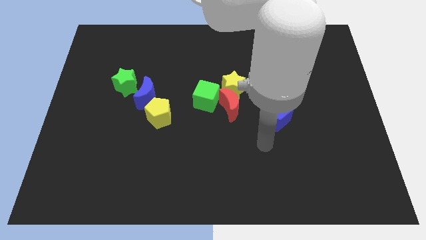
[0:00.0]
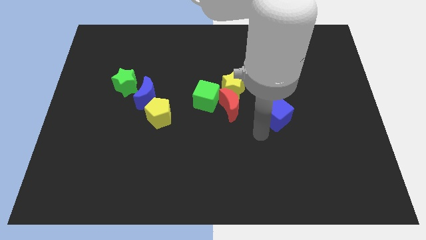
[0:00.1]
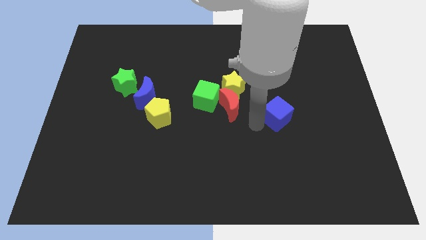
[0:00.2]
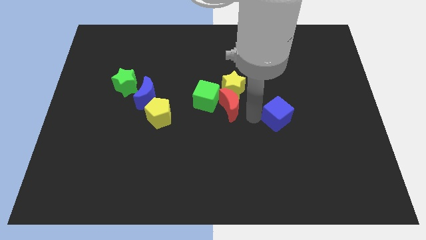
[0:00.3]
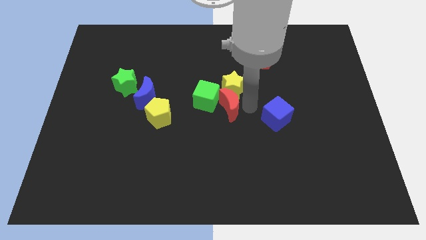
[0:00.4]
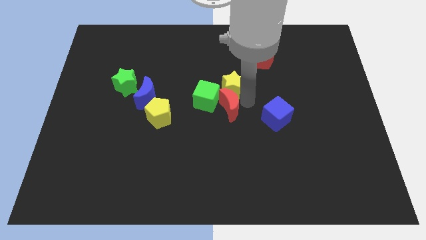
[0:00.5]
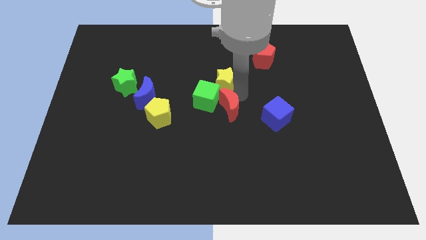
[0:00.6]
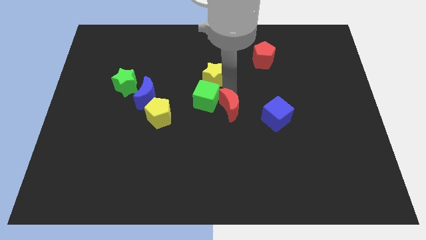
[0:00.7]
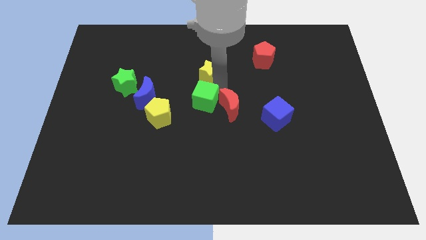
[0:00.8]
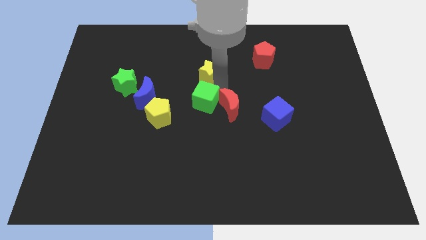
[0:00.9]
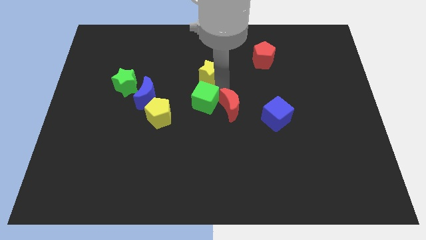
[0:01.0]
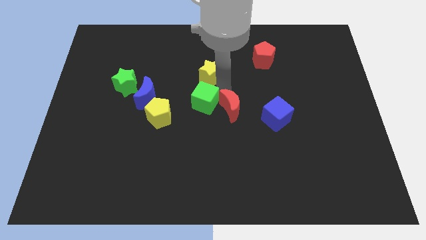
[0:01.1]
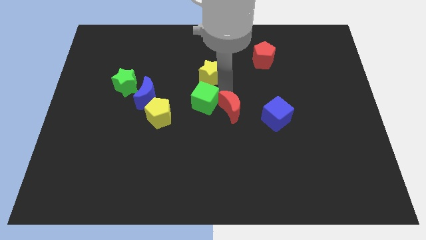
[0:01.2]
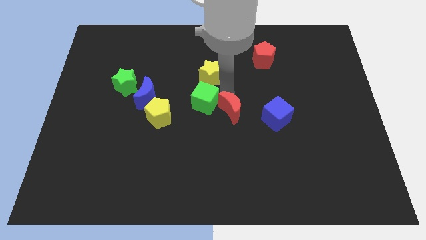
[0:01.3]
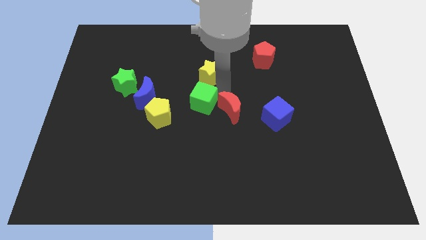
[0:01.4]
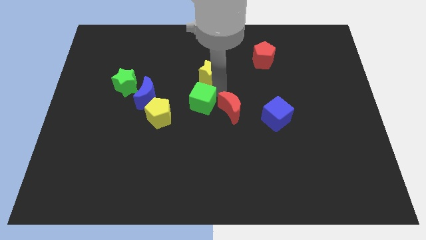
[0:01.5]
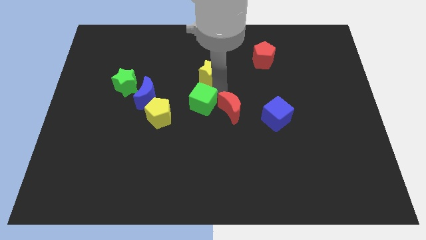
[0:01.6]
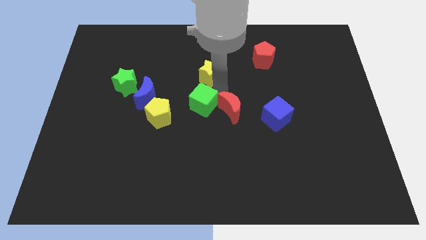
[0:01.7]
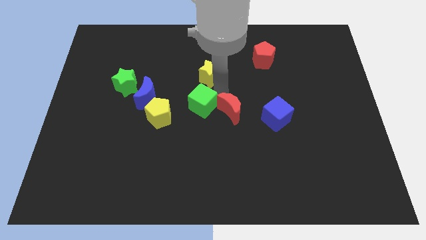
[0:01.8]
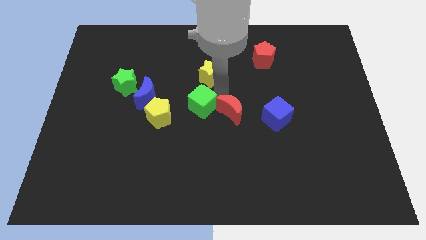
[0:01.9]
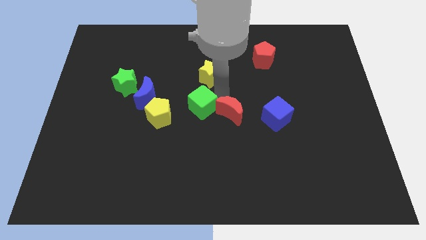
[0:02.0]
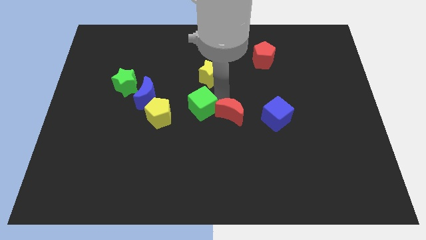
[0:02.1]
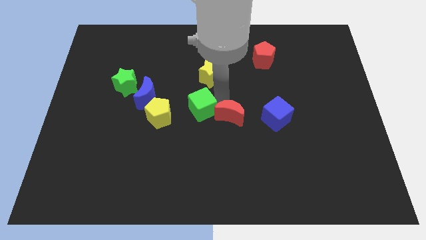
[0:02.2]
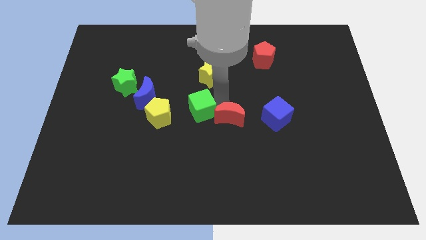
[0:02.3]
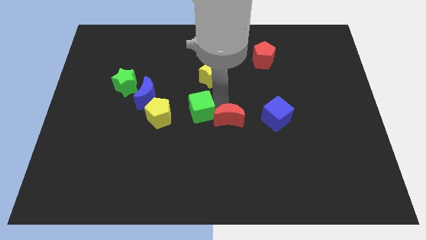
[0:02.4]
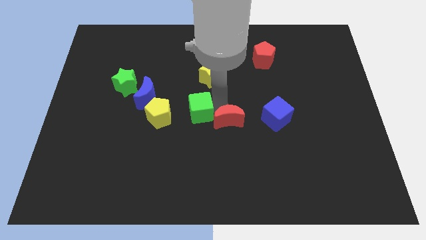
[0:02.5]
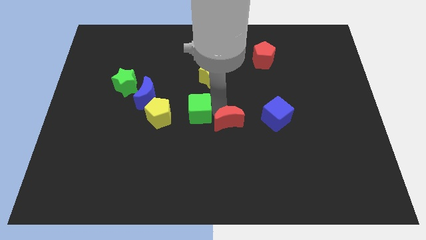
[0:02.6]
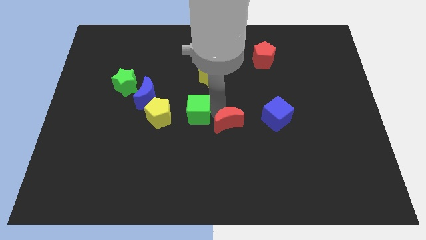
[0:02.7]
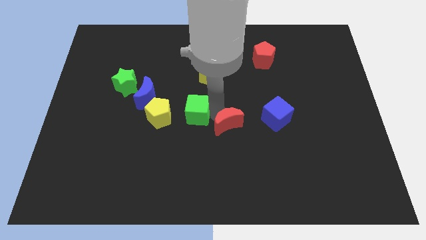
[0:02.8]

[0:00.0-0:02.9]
separate the red moon from the yellow star and green cube

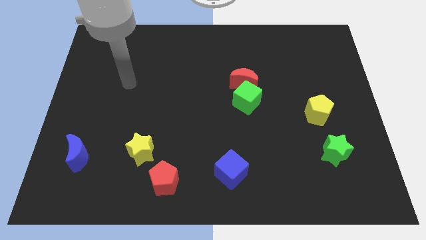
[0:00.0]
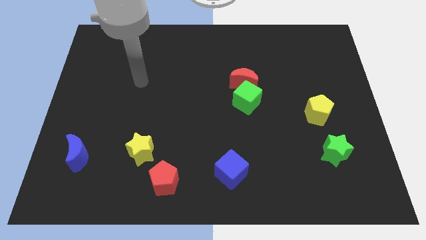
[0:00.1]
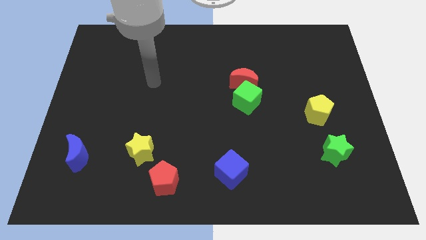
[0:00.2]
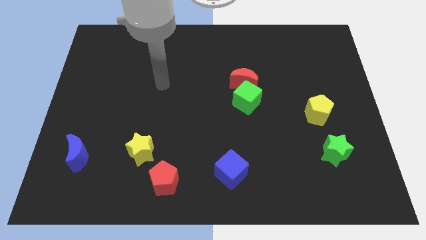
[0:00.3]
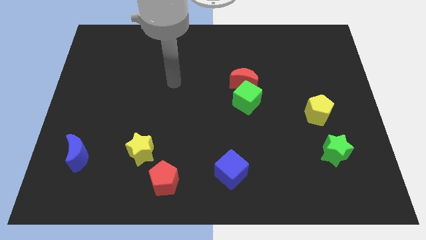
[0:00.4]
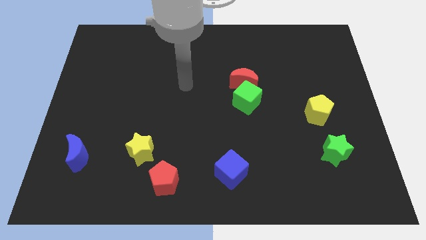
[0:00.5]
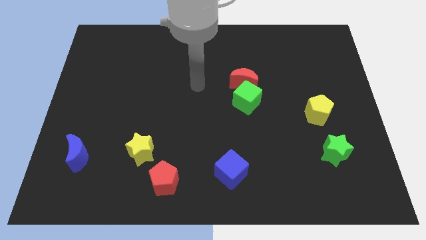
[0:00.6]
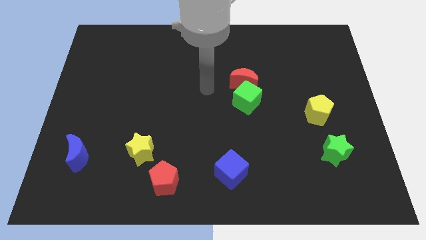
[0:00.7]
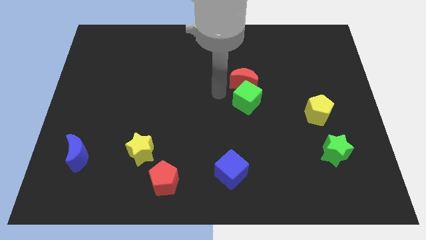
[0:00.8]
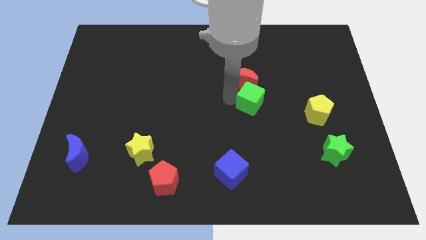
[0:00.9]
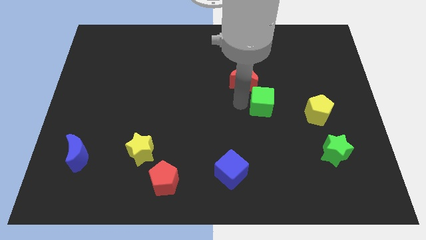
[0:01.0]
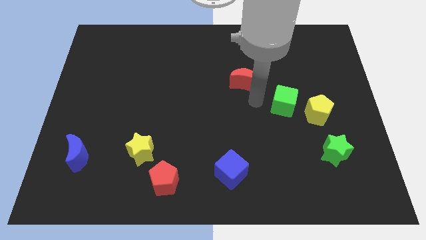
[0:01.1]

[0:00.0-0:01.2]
separate the red moon from the green cube

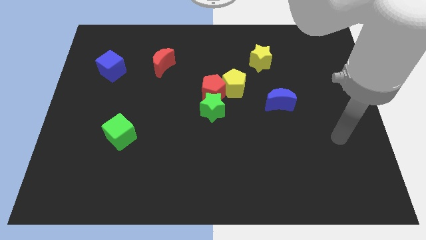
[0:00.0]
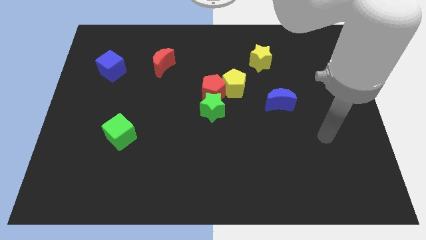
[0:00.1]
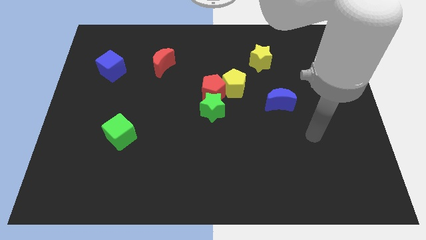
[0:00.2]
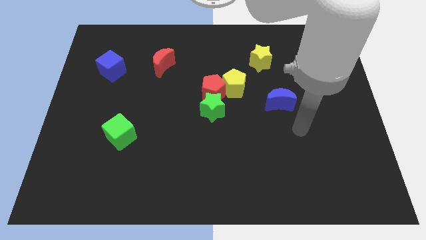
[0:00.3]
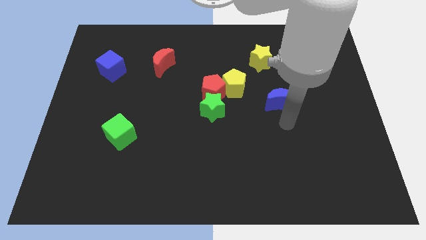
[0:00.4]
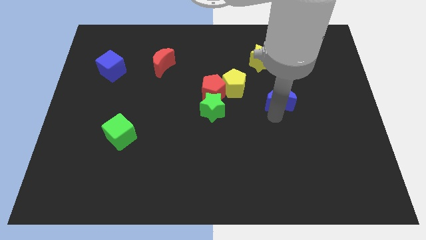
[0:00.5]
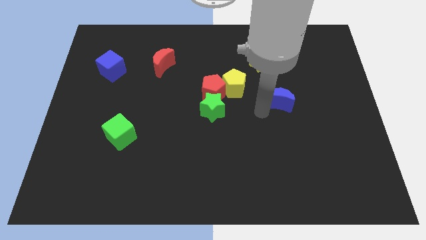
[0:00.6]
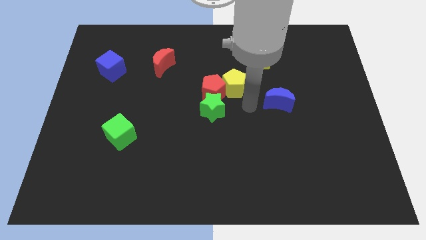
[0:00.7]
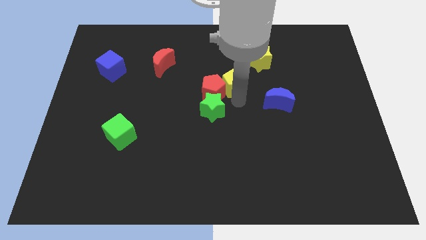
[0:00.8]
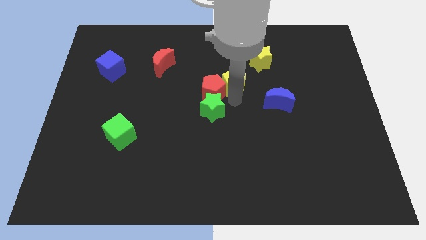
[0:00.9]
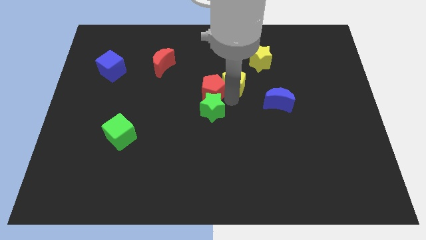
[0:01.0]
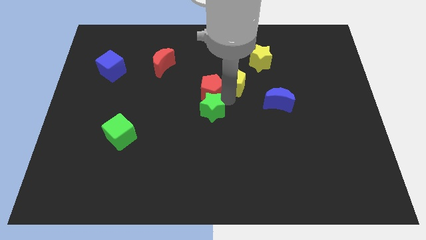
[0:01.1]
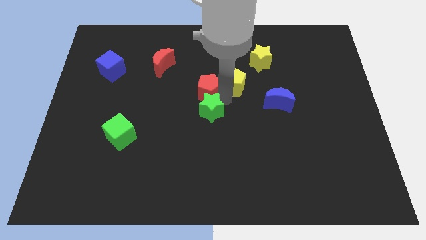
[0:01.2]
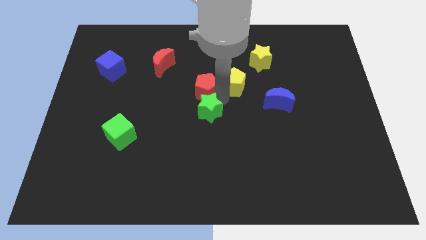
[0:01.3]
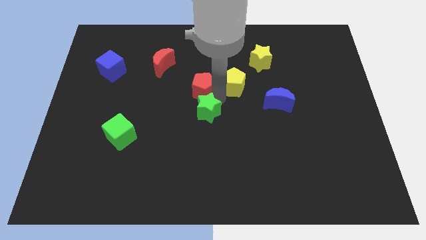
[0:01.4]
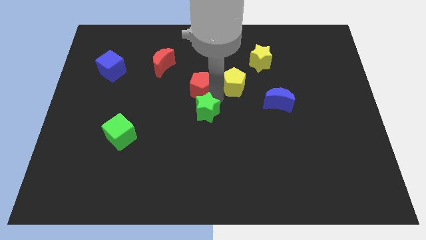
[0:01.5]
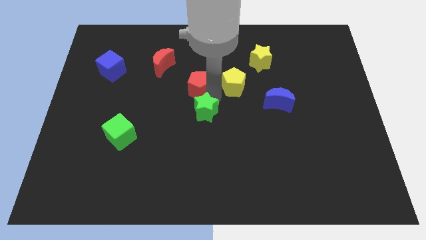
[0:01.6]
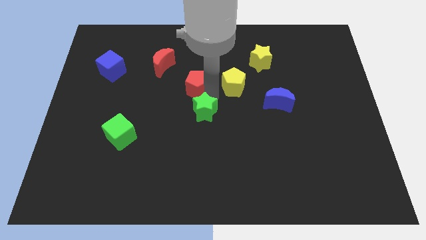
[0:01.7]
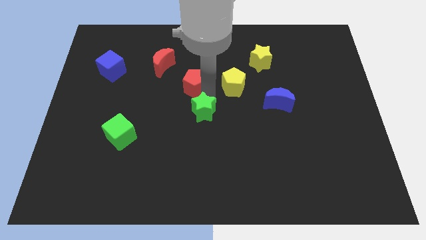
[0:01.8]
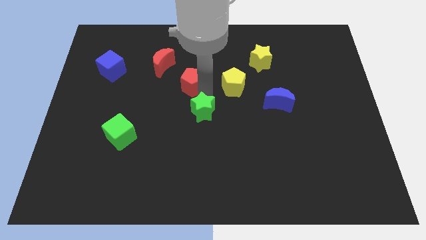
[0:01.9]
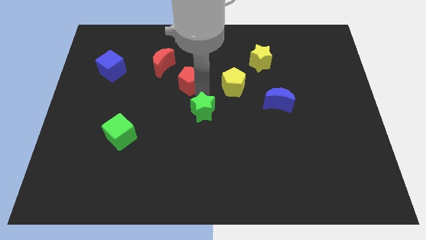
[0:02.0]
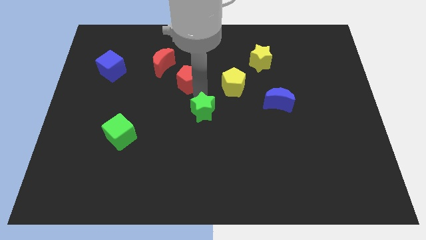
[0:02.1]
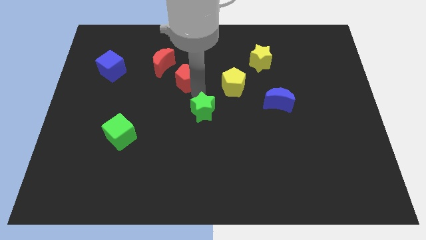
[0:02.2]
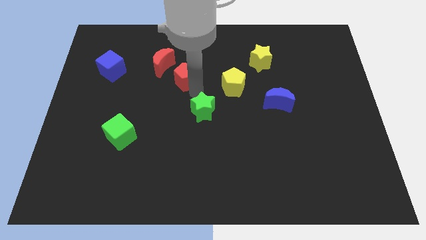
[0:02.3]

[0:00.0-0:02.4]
move the red pentagon away from the yellow pentagon and green star

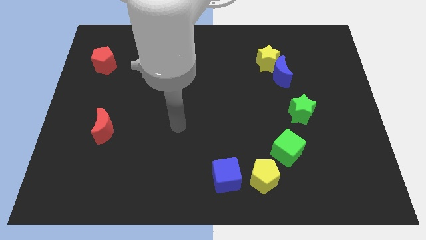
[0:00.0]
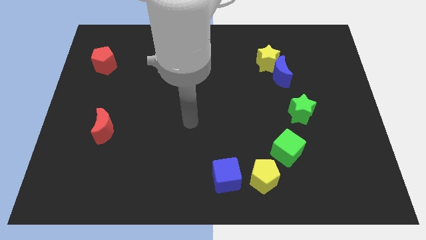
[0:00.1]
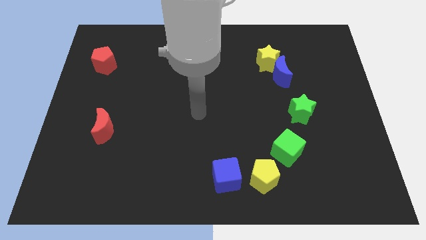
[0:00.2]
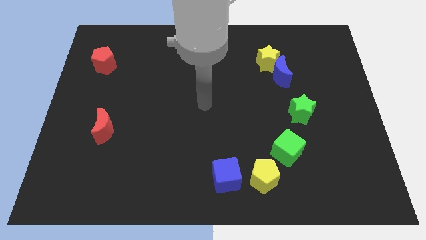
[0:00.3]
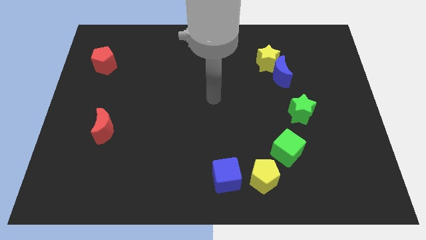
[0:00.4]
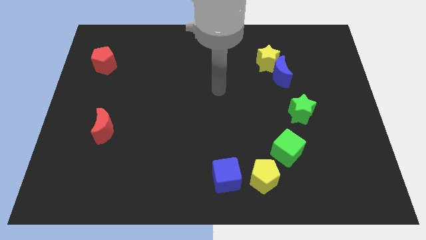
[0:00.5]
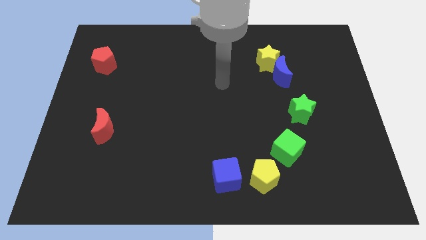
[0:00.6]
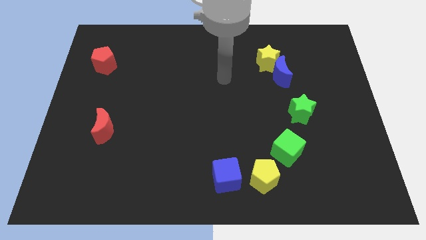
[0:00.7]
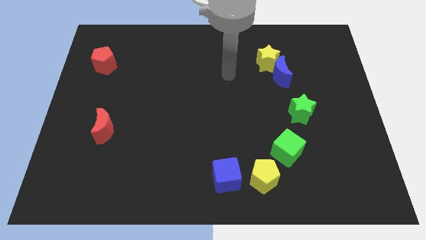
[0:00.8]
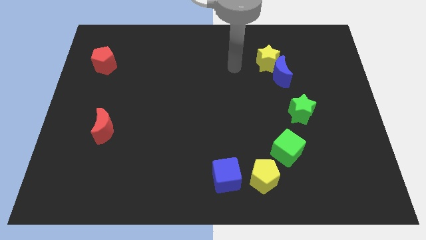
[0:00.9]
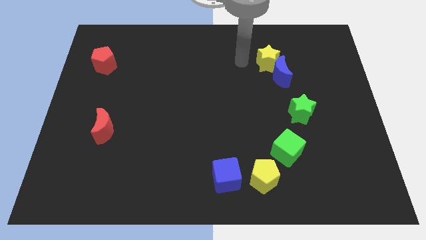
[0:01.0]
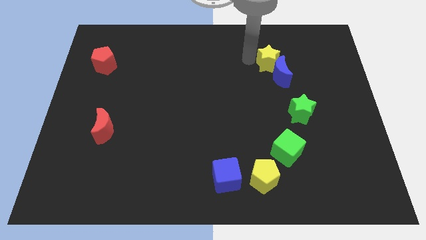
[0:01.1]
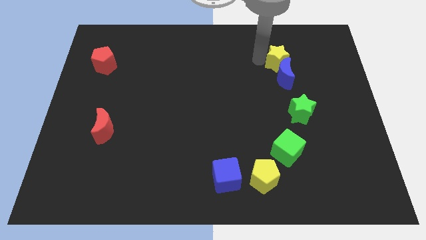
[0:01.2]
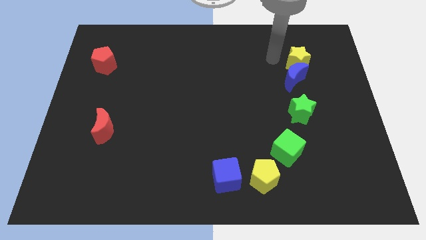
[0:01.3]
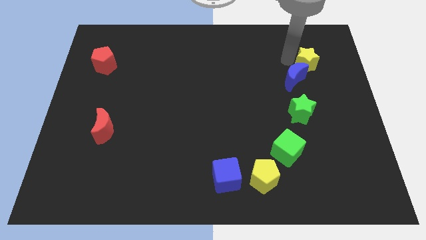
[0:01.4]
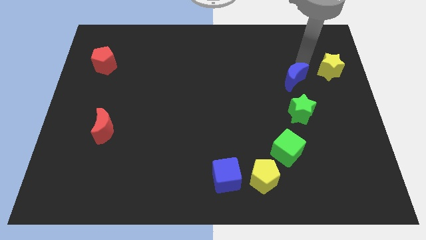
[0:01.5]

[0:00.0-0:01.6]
move the blue moon away from the yellow star

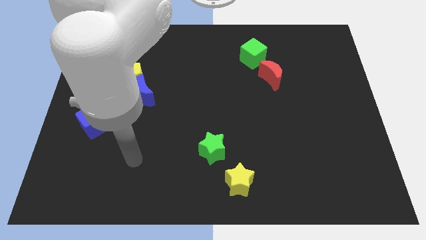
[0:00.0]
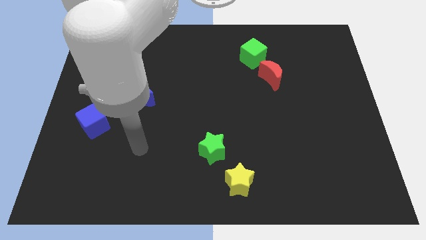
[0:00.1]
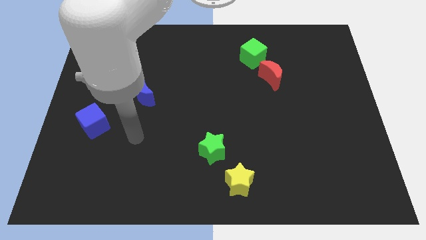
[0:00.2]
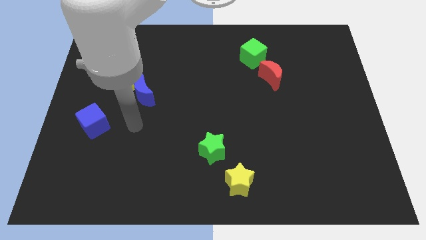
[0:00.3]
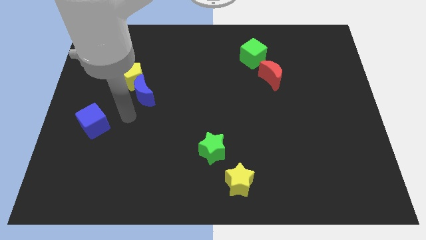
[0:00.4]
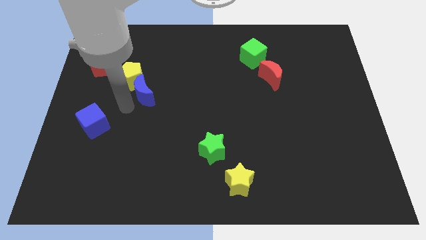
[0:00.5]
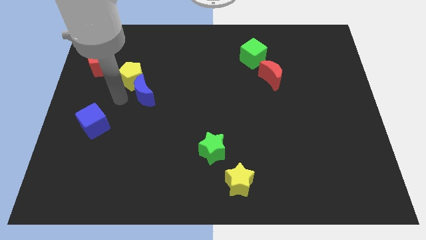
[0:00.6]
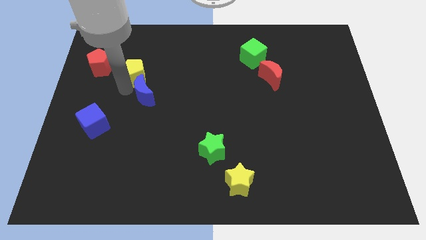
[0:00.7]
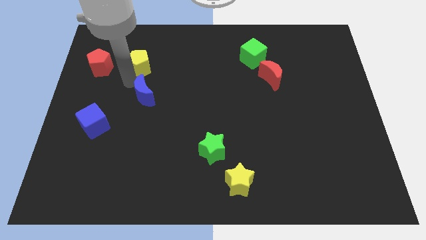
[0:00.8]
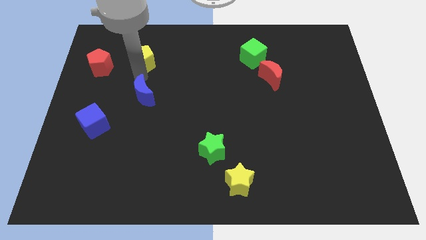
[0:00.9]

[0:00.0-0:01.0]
pull the blue moon apart from the yellow pentagon

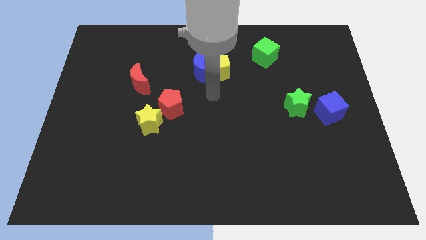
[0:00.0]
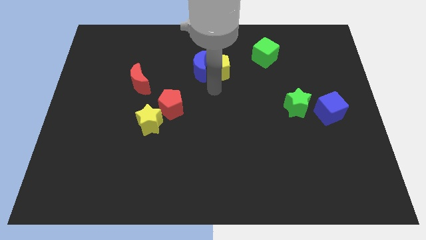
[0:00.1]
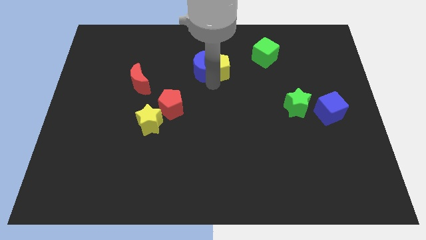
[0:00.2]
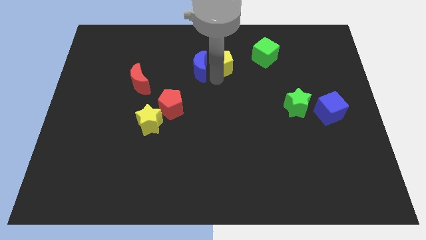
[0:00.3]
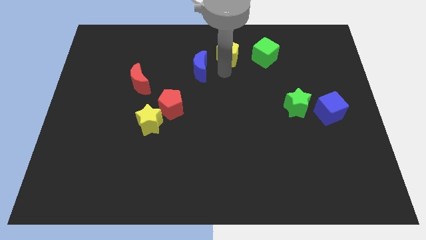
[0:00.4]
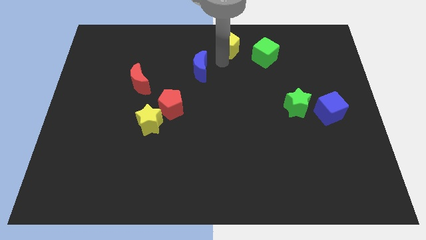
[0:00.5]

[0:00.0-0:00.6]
separate the blue moon from the yellow pentagon
